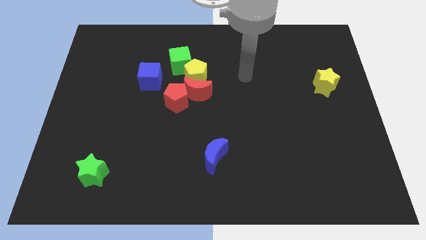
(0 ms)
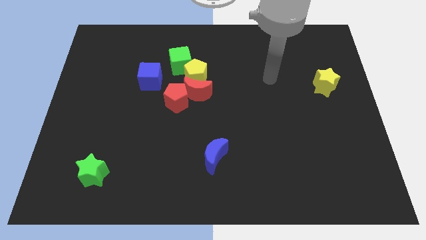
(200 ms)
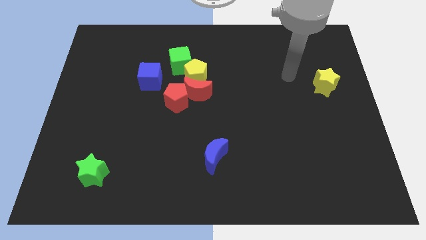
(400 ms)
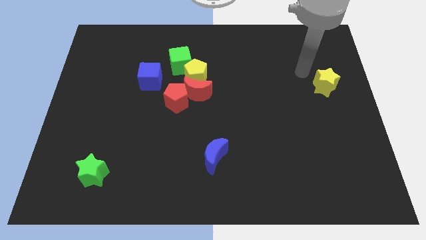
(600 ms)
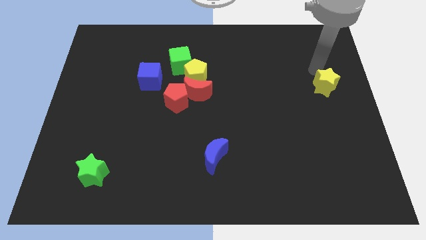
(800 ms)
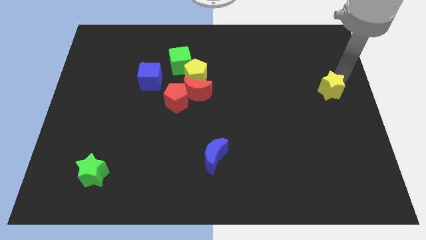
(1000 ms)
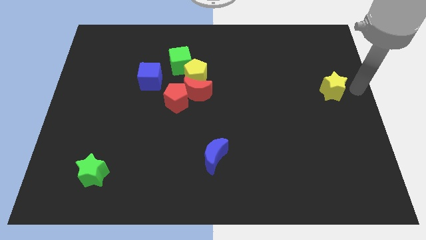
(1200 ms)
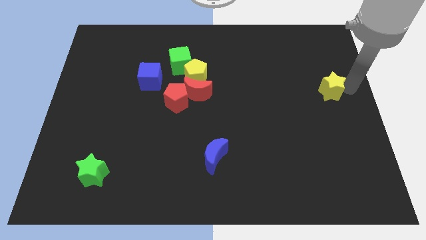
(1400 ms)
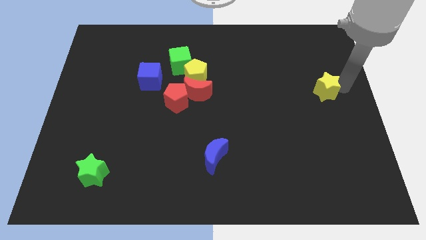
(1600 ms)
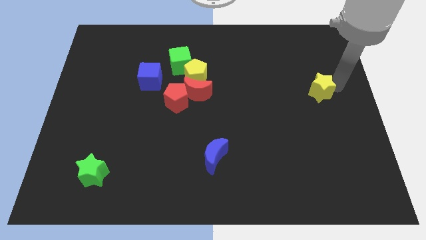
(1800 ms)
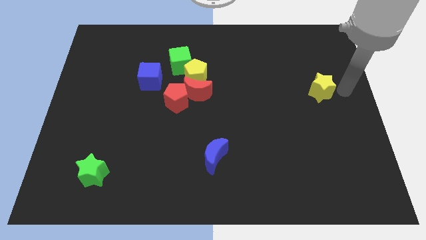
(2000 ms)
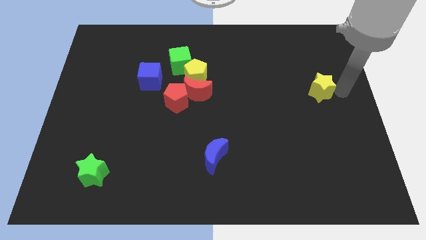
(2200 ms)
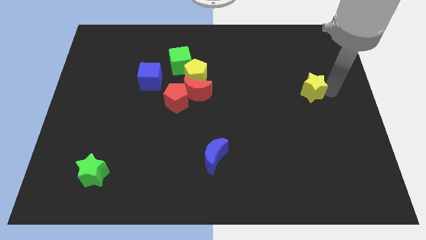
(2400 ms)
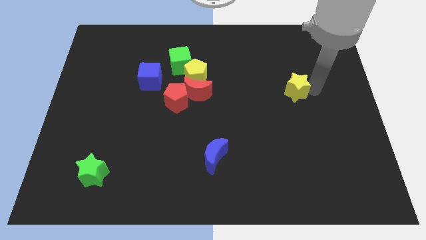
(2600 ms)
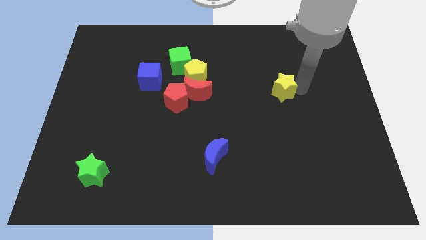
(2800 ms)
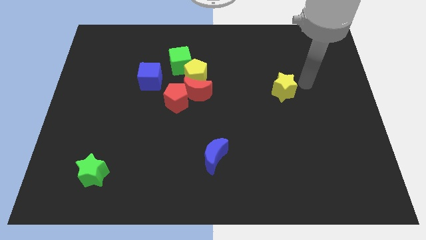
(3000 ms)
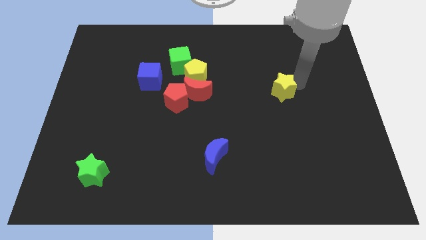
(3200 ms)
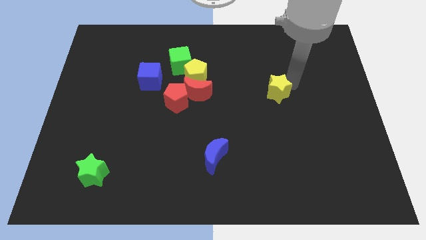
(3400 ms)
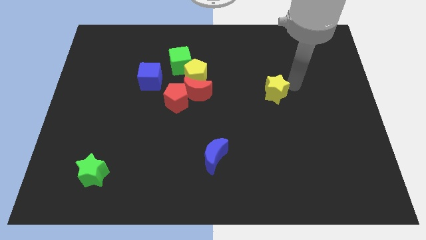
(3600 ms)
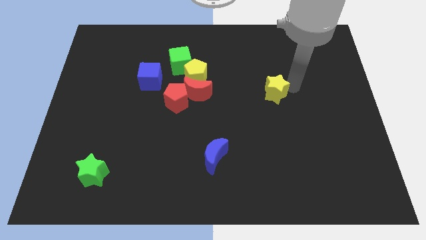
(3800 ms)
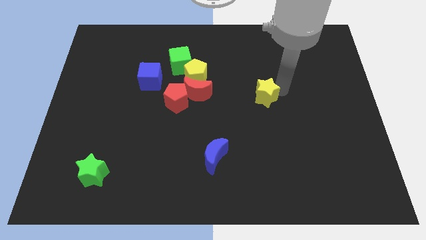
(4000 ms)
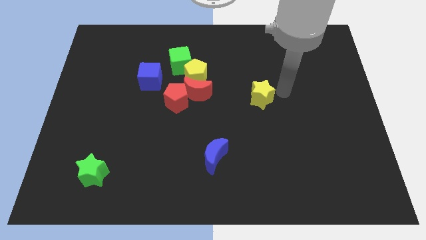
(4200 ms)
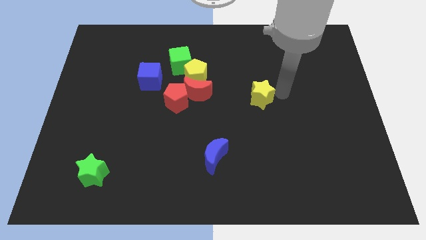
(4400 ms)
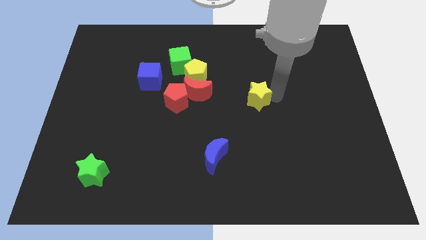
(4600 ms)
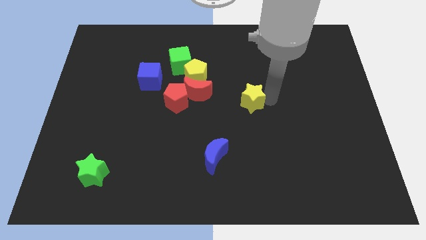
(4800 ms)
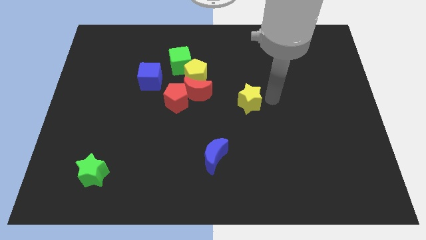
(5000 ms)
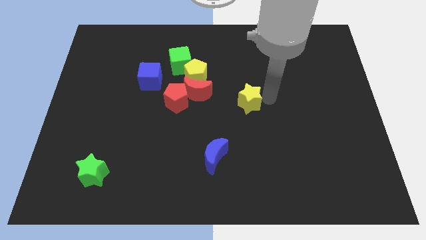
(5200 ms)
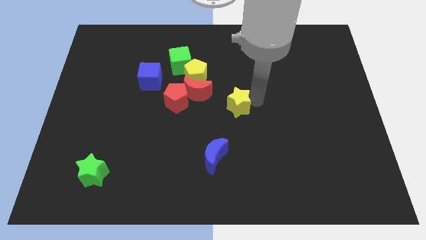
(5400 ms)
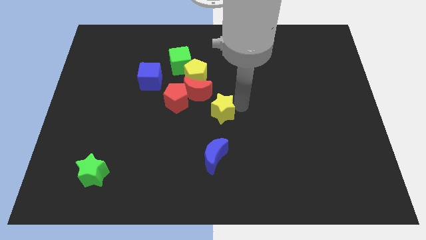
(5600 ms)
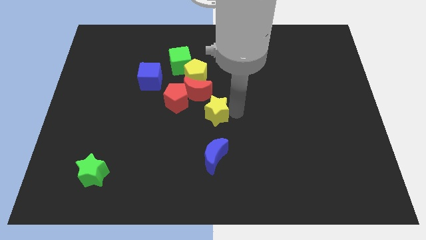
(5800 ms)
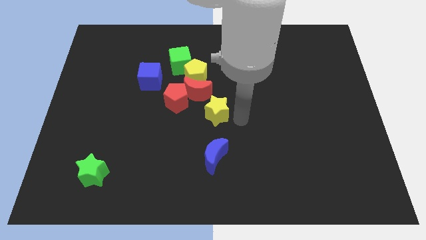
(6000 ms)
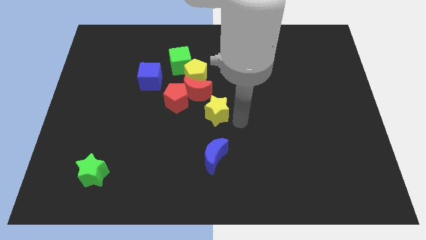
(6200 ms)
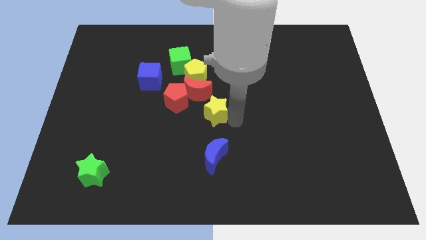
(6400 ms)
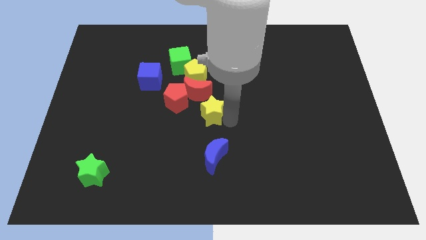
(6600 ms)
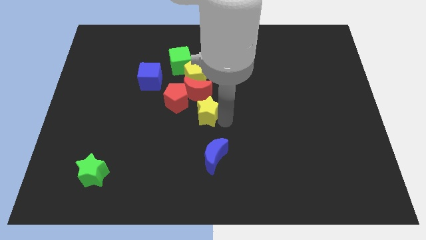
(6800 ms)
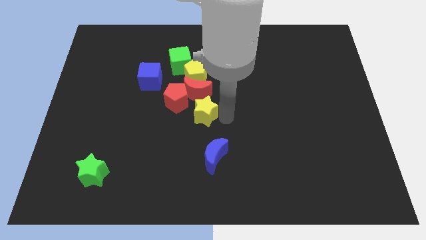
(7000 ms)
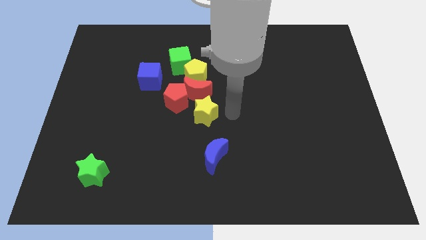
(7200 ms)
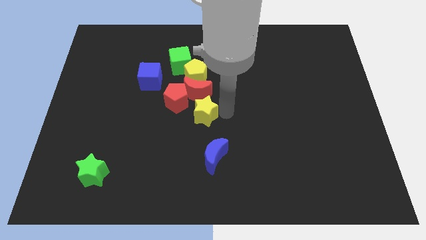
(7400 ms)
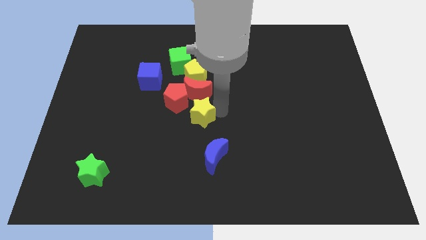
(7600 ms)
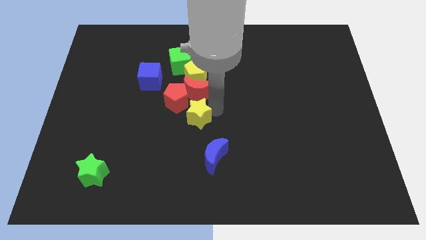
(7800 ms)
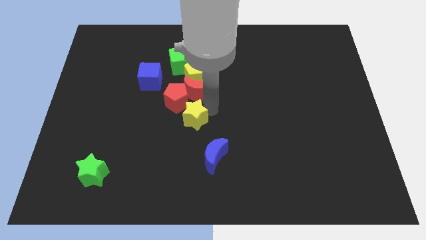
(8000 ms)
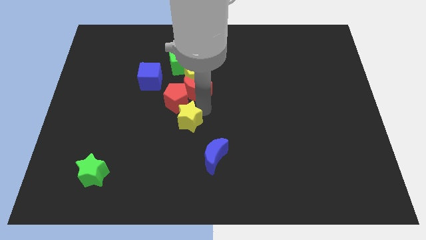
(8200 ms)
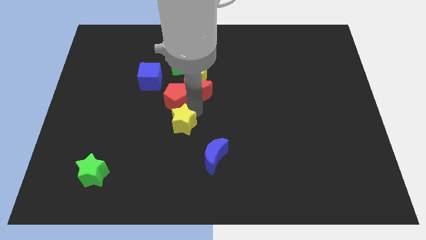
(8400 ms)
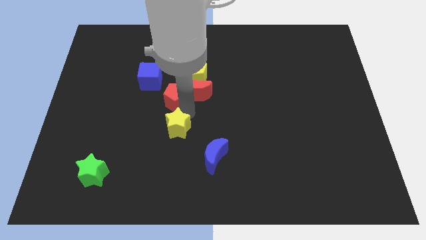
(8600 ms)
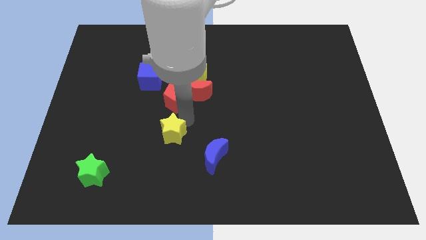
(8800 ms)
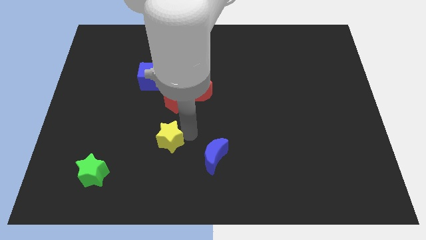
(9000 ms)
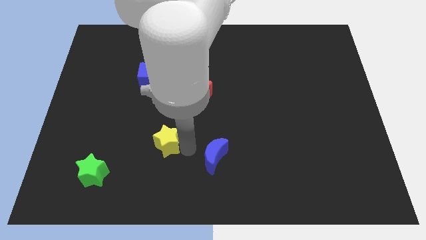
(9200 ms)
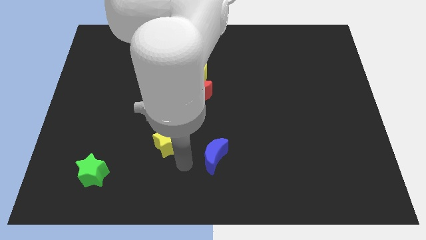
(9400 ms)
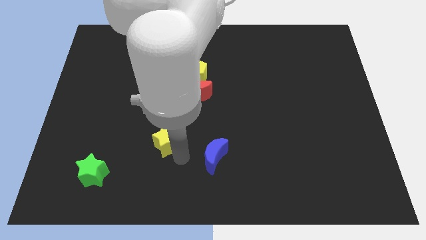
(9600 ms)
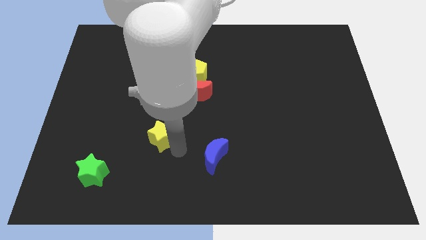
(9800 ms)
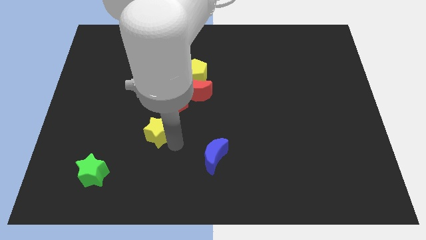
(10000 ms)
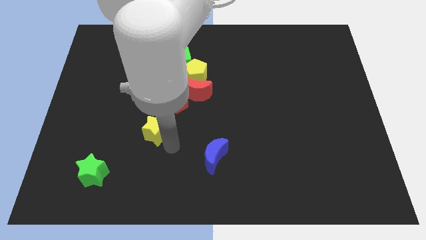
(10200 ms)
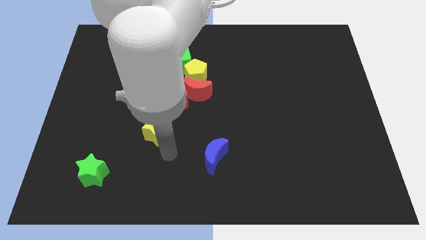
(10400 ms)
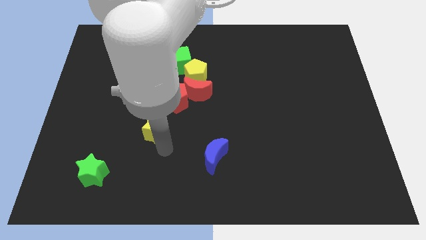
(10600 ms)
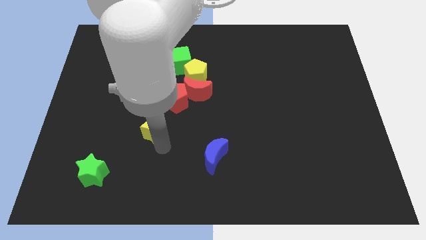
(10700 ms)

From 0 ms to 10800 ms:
slide the yellow star to the bottom of the blue cube

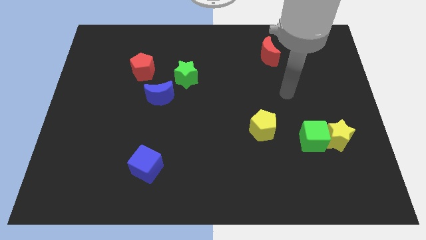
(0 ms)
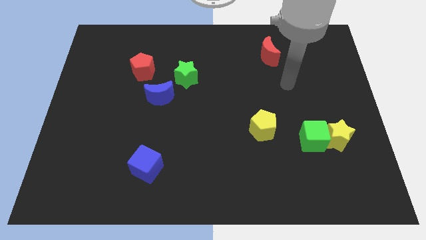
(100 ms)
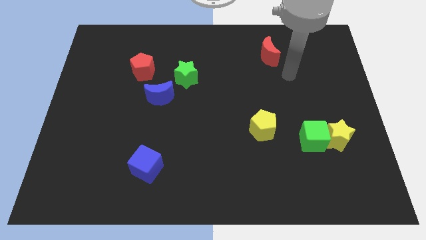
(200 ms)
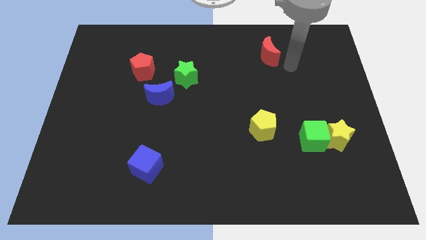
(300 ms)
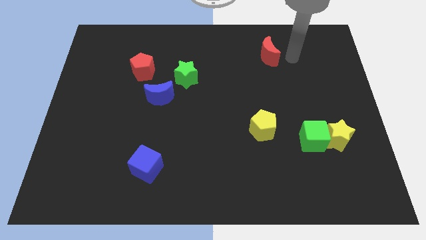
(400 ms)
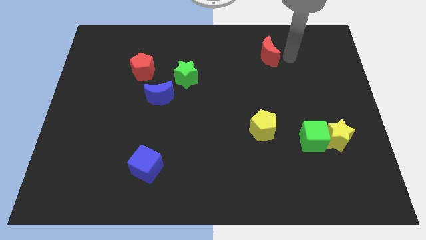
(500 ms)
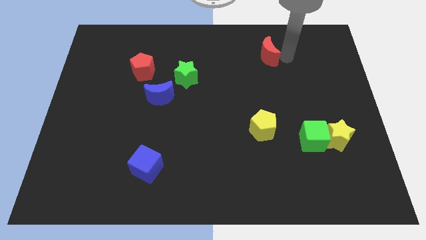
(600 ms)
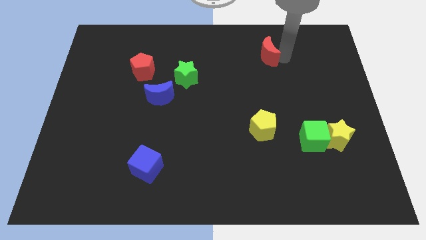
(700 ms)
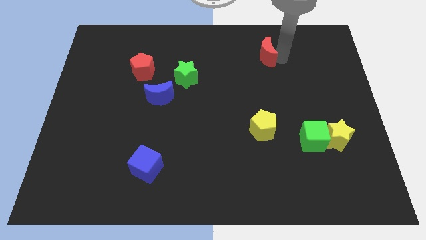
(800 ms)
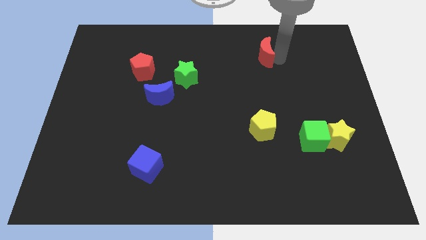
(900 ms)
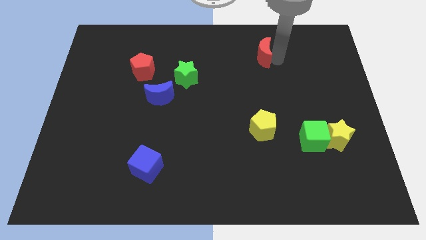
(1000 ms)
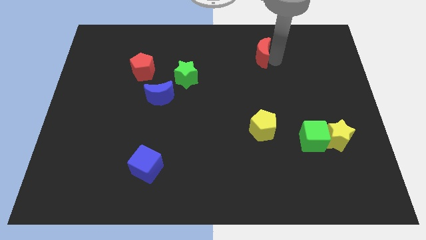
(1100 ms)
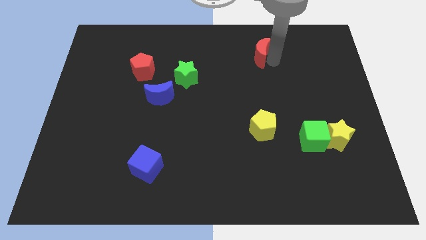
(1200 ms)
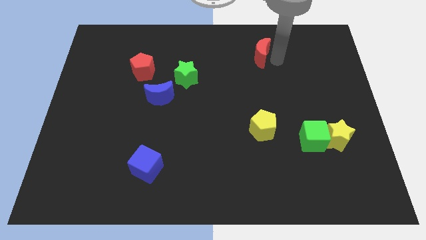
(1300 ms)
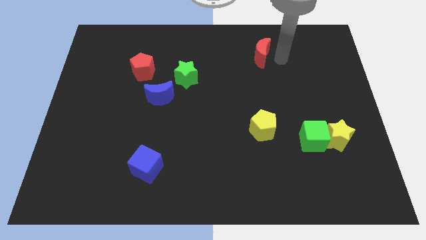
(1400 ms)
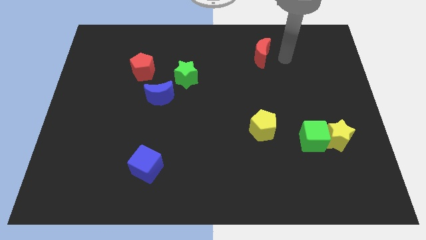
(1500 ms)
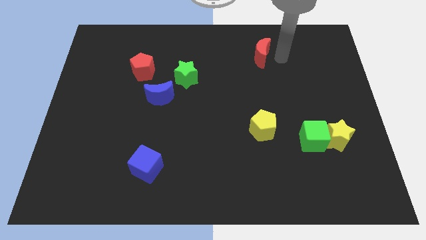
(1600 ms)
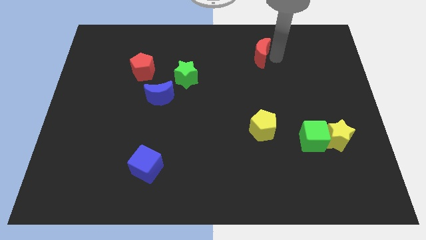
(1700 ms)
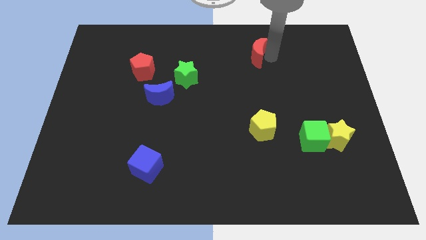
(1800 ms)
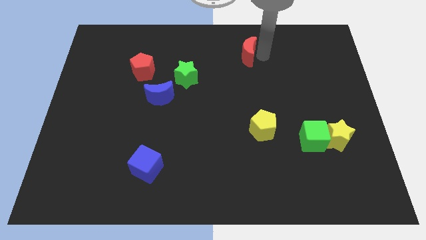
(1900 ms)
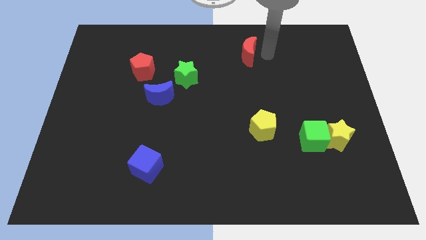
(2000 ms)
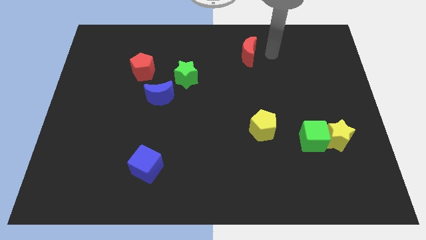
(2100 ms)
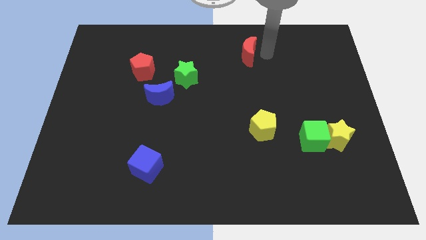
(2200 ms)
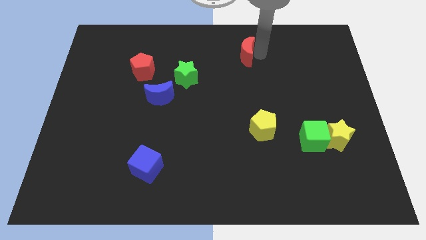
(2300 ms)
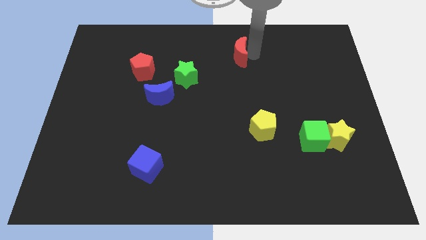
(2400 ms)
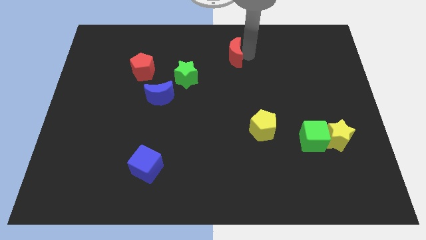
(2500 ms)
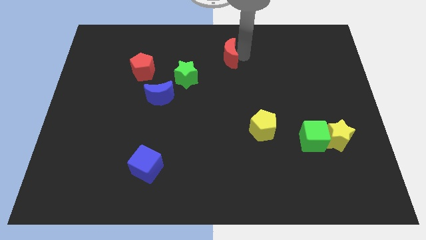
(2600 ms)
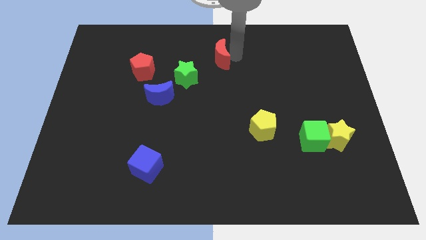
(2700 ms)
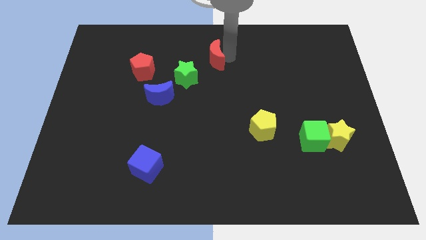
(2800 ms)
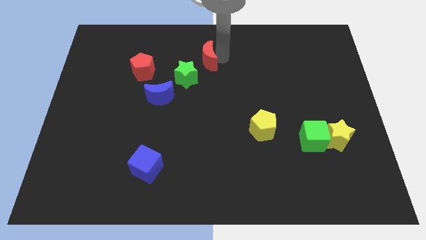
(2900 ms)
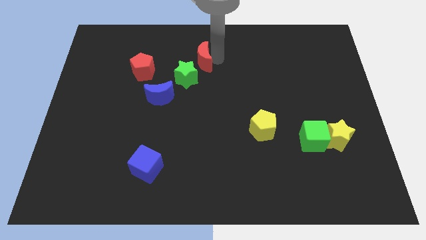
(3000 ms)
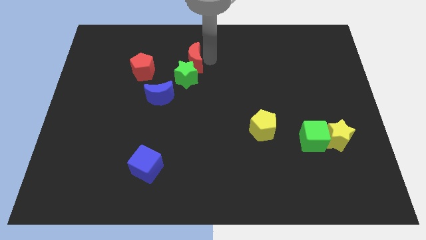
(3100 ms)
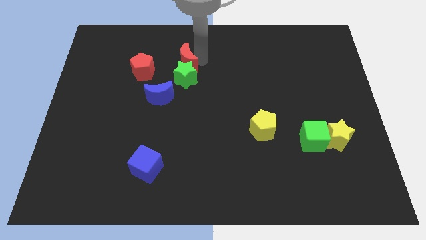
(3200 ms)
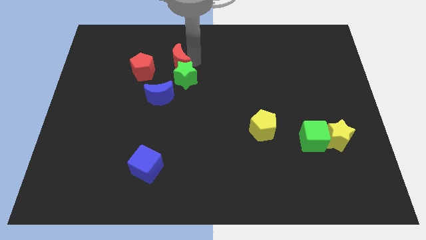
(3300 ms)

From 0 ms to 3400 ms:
move the red moon to the top side of the blue moon
